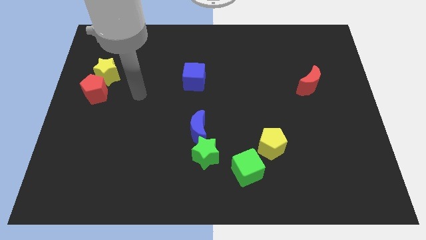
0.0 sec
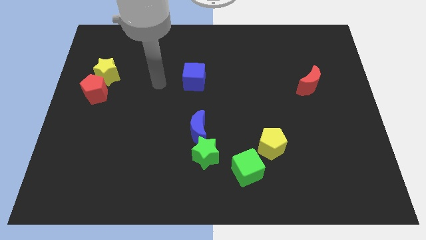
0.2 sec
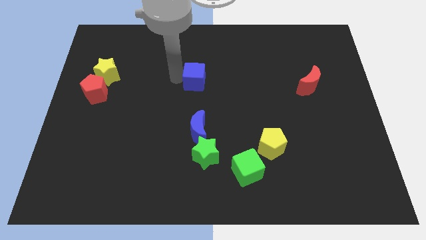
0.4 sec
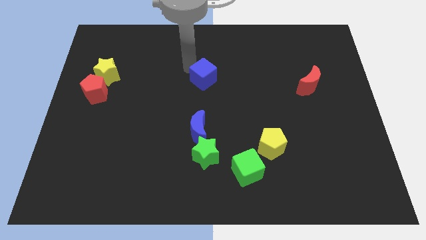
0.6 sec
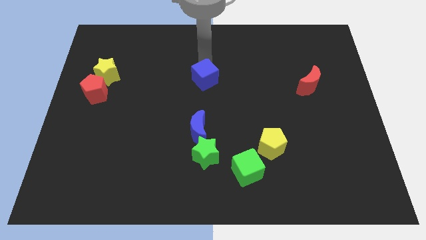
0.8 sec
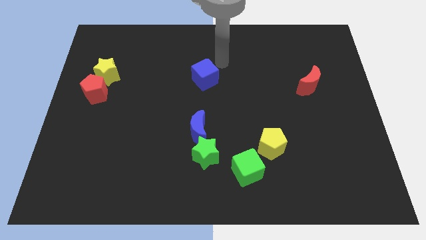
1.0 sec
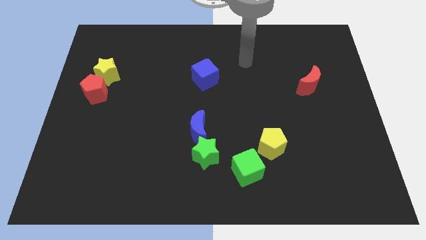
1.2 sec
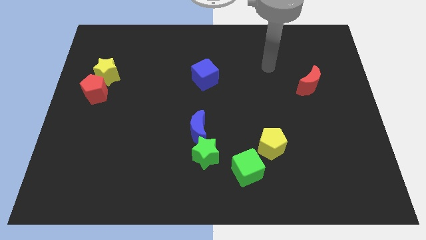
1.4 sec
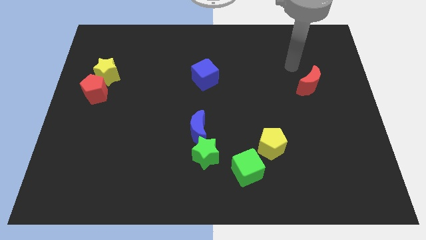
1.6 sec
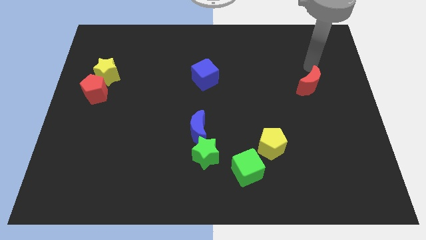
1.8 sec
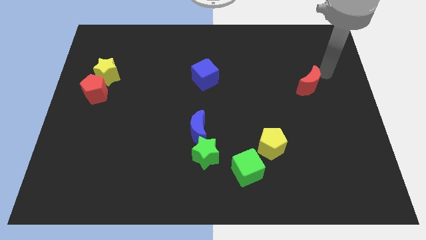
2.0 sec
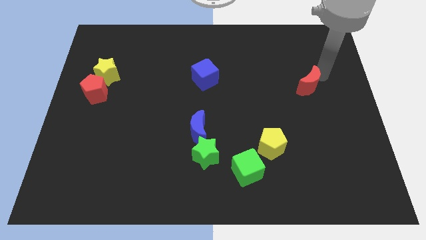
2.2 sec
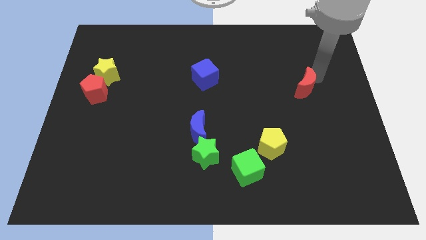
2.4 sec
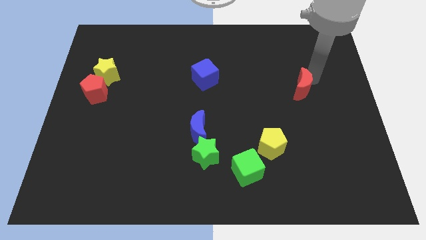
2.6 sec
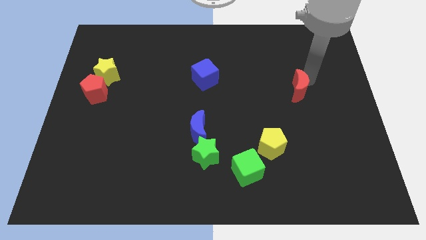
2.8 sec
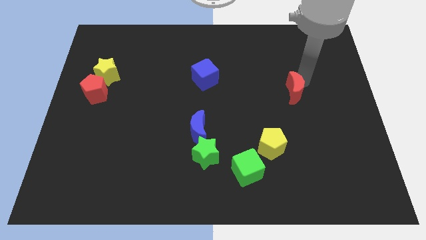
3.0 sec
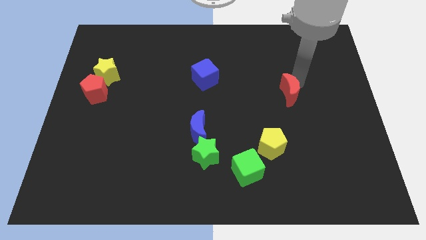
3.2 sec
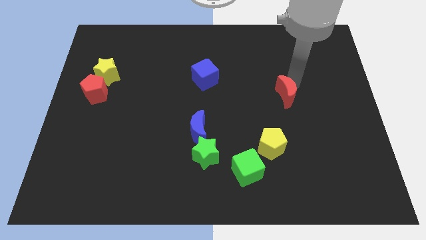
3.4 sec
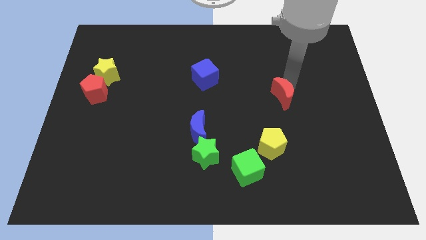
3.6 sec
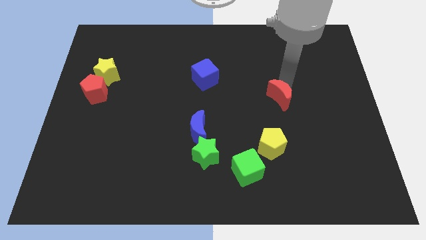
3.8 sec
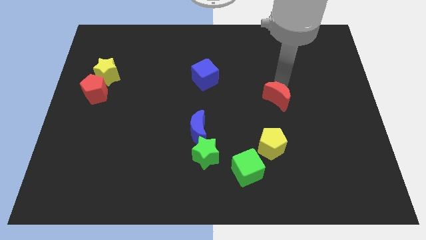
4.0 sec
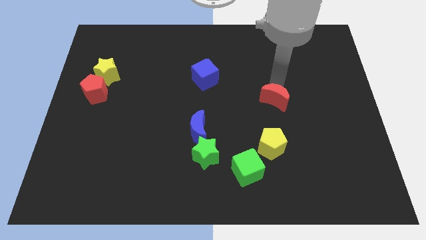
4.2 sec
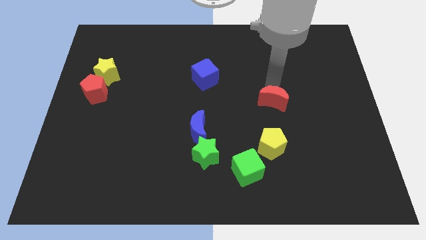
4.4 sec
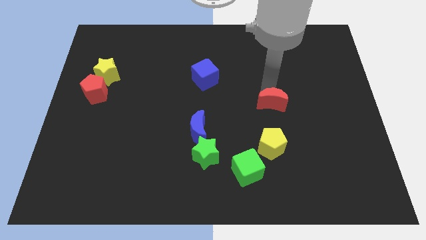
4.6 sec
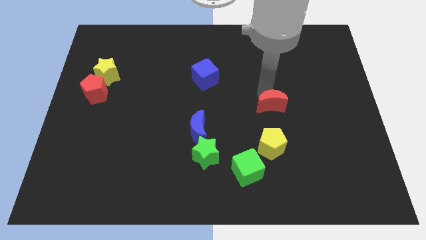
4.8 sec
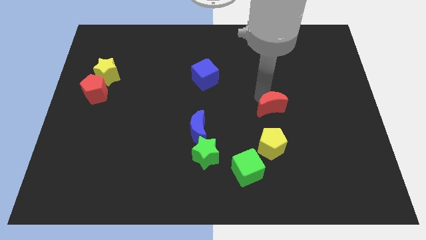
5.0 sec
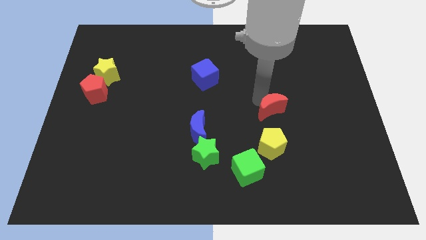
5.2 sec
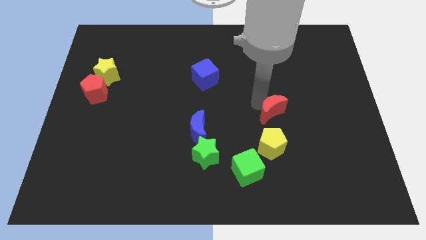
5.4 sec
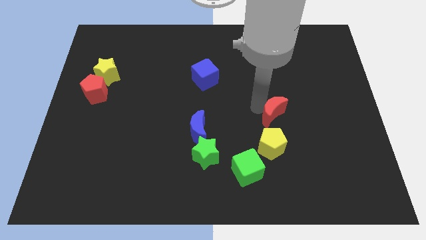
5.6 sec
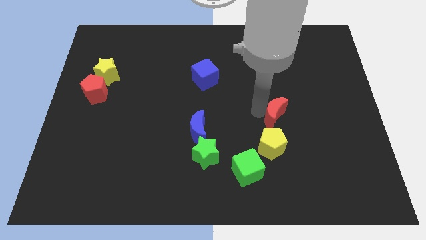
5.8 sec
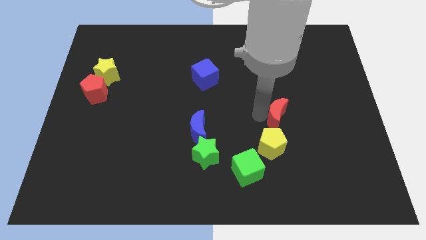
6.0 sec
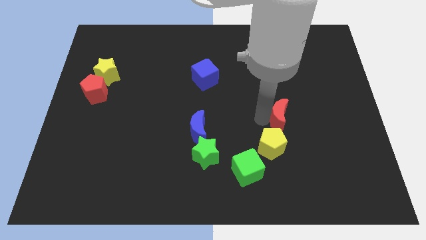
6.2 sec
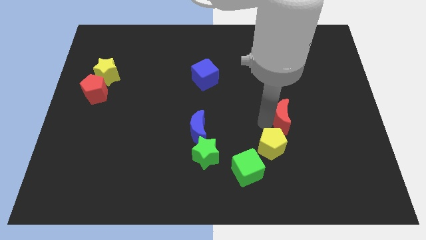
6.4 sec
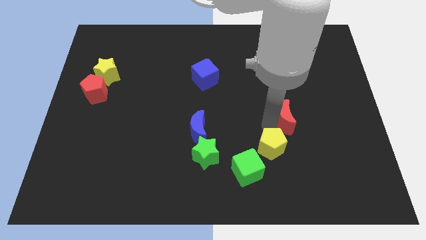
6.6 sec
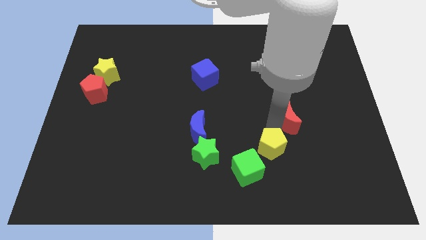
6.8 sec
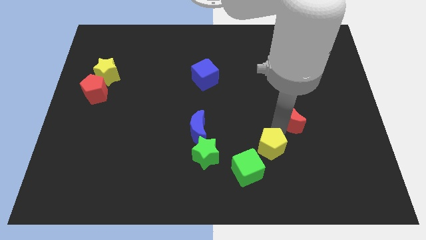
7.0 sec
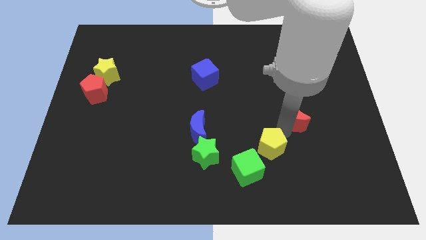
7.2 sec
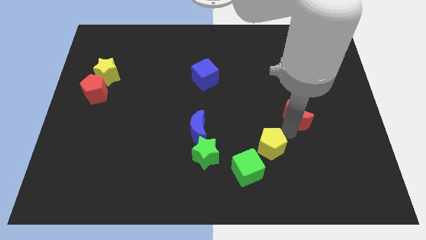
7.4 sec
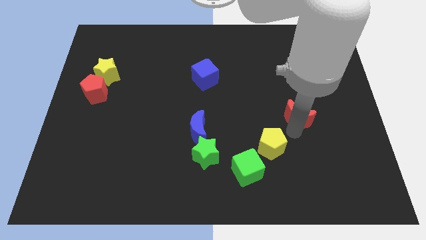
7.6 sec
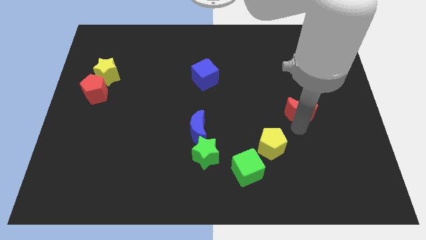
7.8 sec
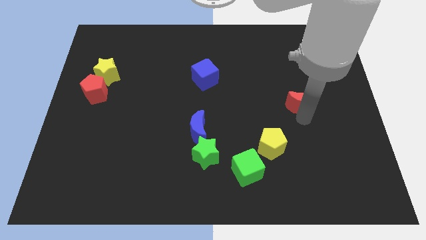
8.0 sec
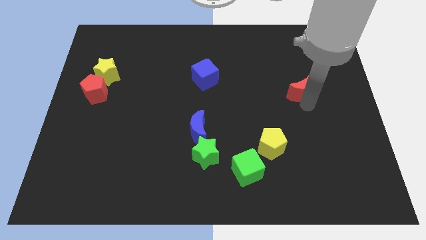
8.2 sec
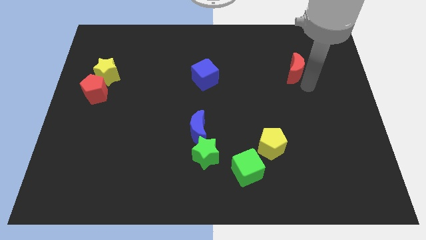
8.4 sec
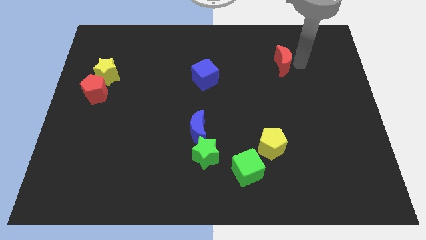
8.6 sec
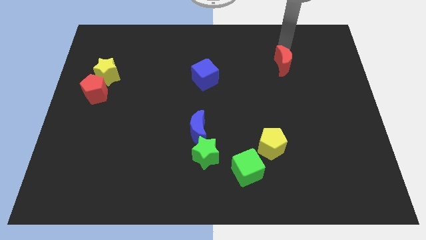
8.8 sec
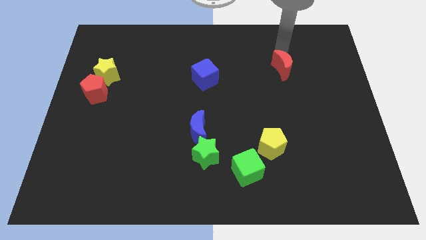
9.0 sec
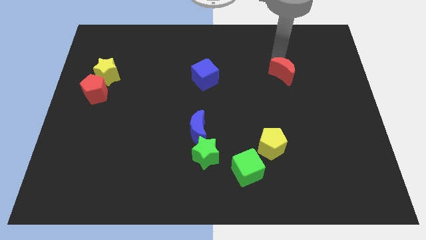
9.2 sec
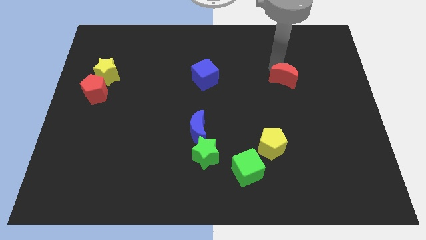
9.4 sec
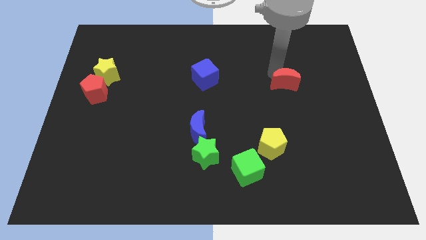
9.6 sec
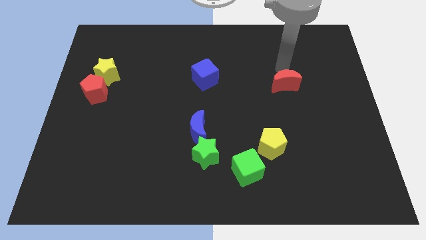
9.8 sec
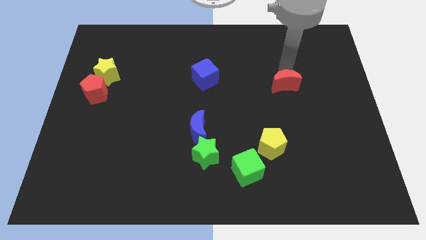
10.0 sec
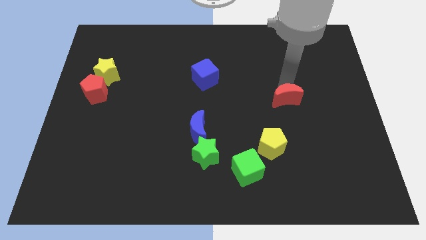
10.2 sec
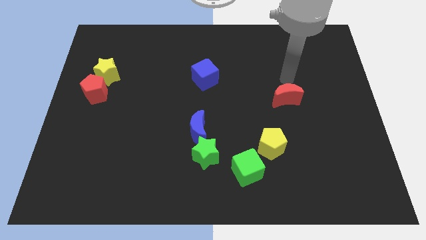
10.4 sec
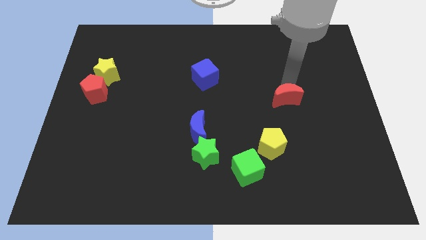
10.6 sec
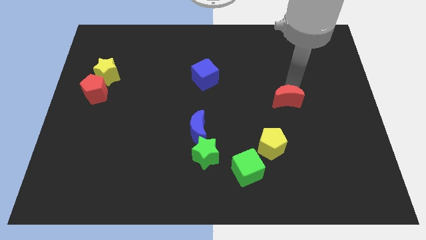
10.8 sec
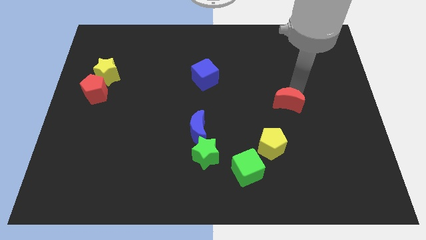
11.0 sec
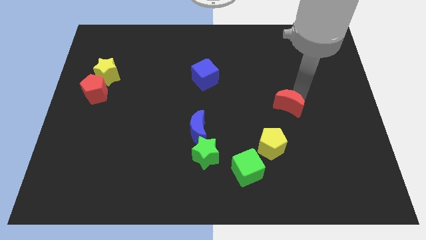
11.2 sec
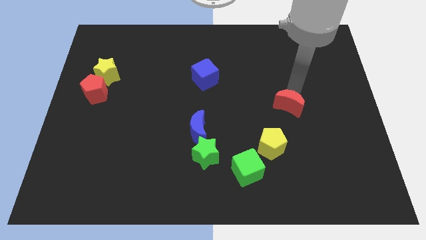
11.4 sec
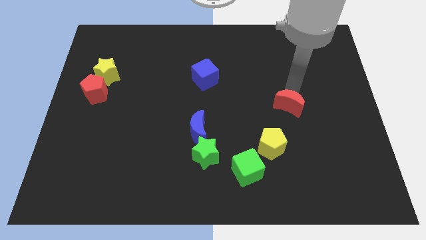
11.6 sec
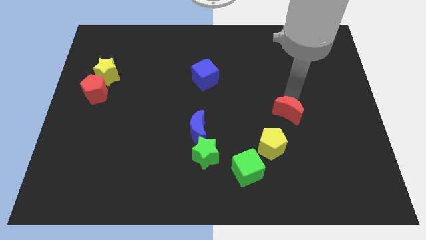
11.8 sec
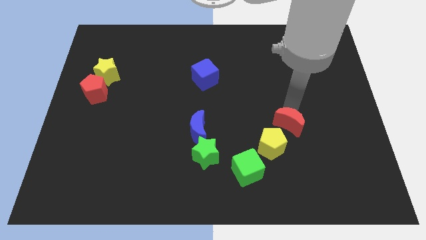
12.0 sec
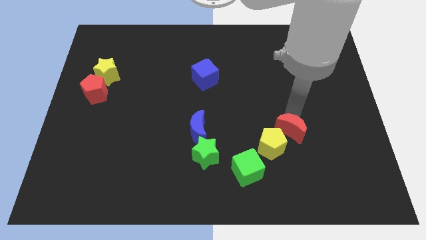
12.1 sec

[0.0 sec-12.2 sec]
push the red moon towards the yellow pentagon

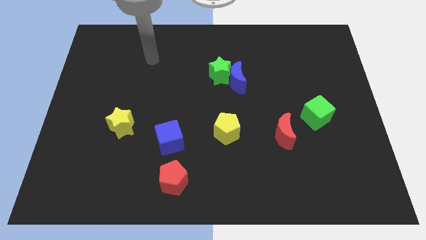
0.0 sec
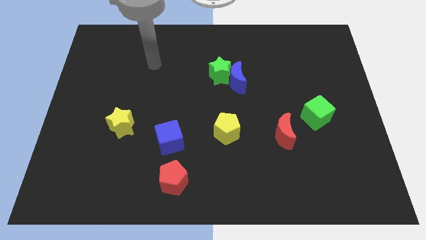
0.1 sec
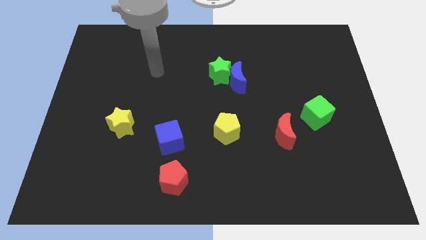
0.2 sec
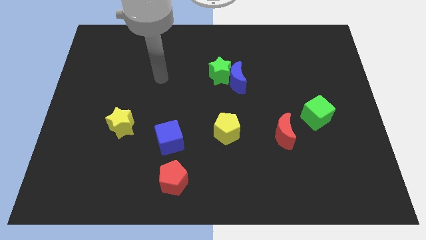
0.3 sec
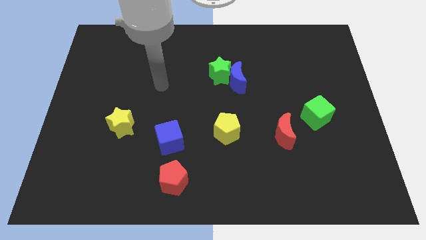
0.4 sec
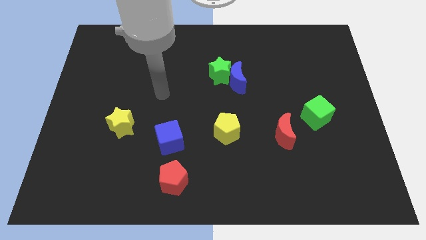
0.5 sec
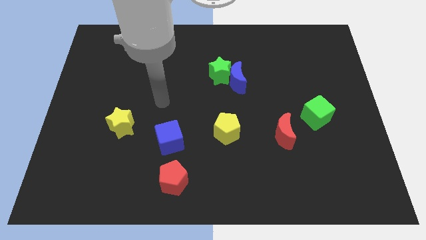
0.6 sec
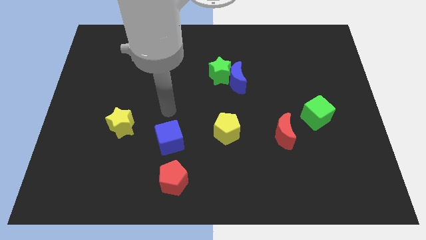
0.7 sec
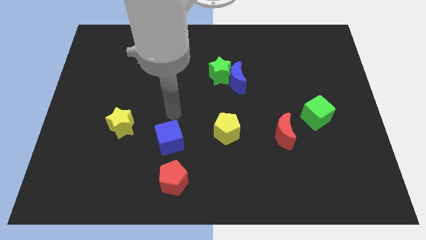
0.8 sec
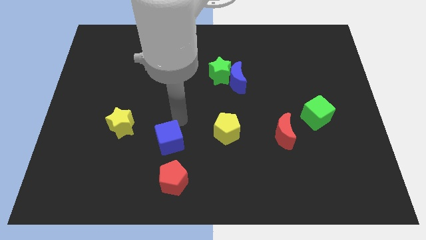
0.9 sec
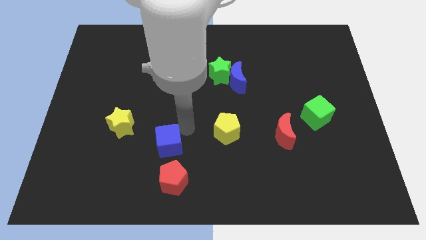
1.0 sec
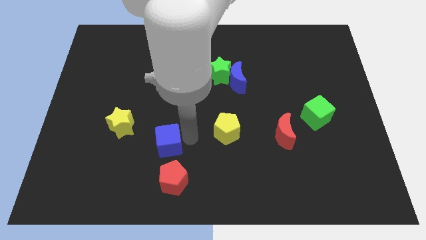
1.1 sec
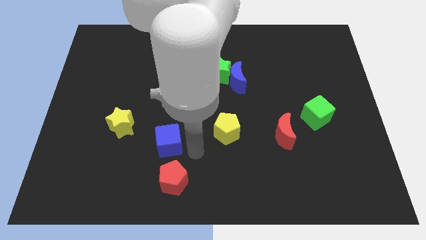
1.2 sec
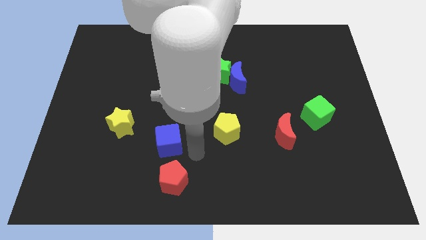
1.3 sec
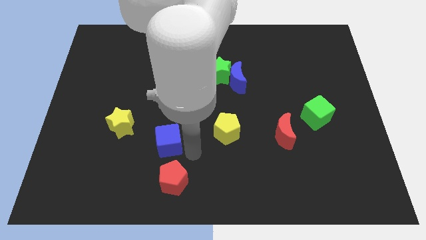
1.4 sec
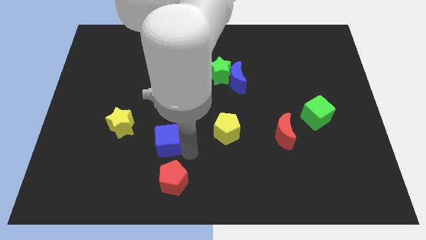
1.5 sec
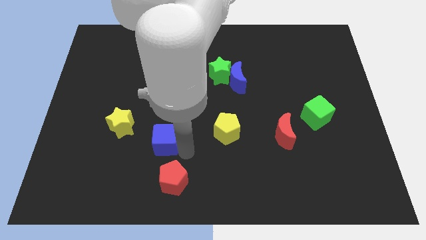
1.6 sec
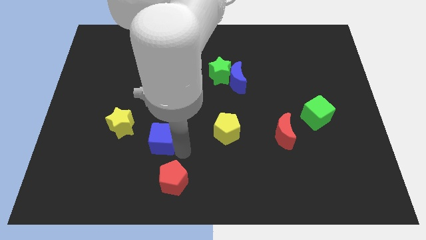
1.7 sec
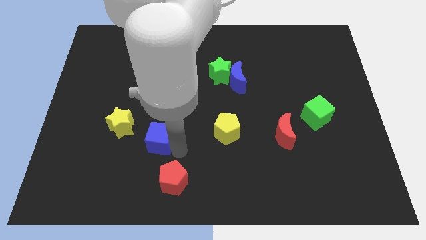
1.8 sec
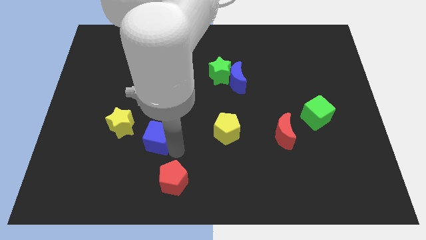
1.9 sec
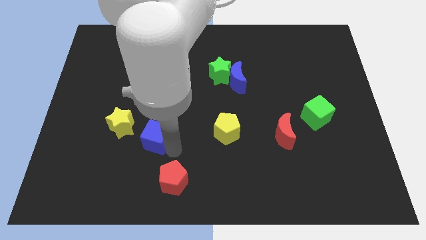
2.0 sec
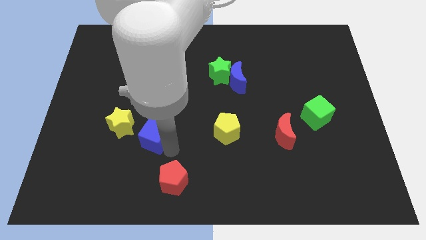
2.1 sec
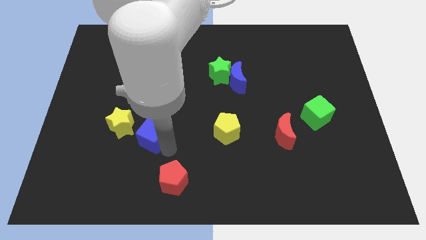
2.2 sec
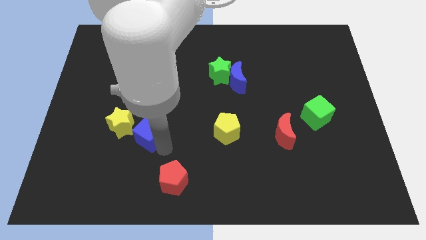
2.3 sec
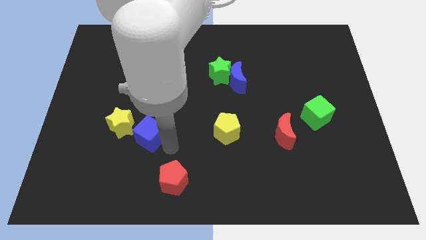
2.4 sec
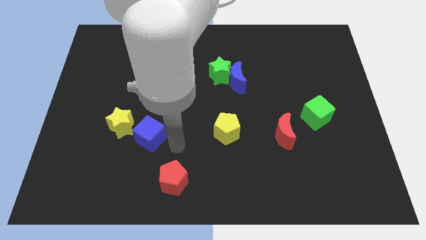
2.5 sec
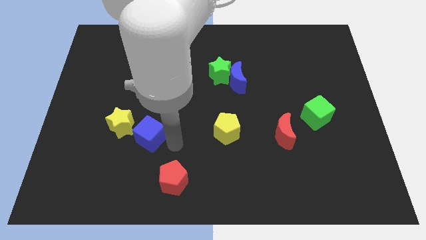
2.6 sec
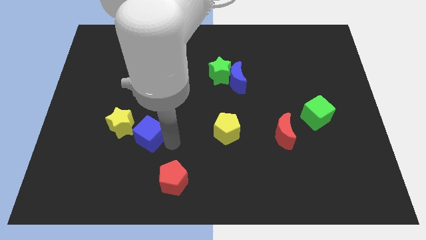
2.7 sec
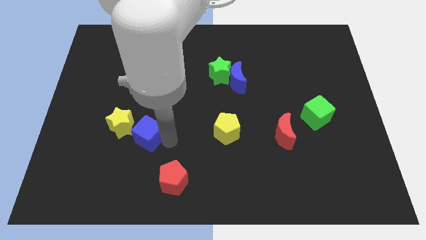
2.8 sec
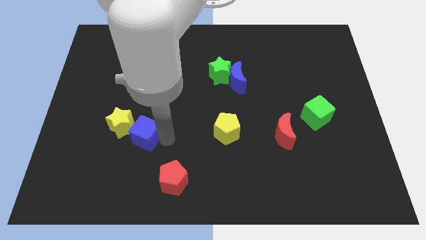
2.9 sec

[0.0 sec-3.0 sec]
push the blue cube next to the yellow star
